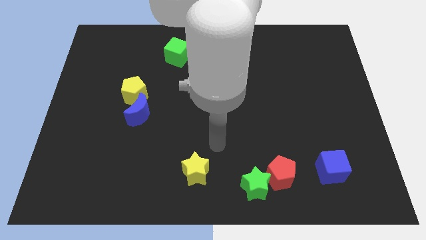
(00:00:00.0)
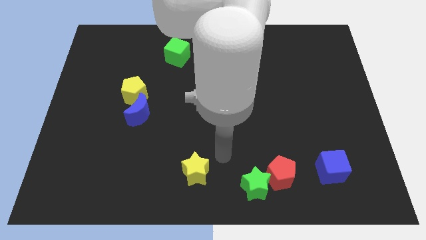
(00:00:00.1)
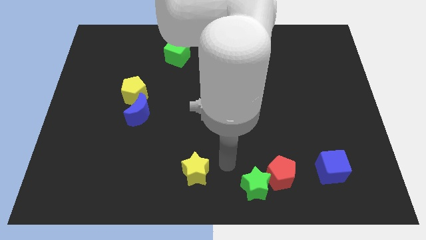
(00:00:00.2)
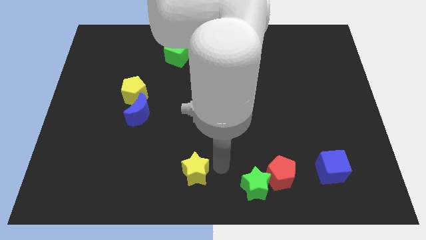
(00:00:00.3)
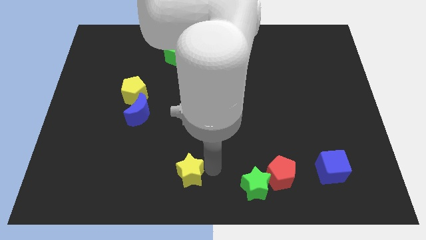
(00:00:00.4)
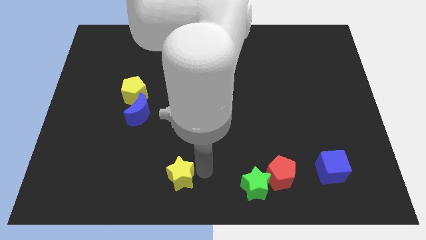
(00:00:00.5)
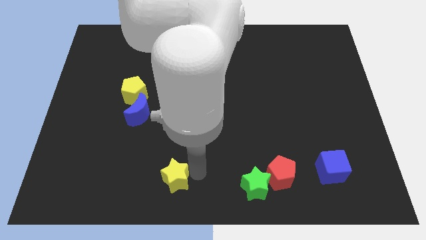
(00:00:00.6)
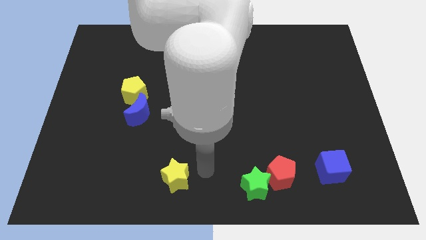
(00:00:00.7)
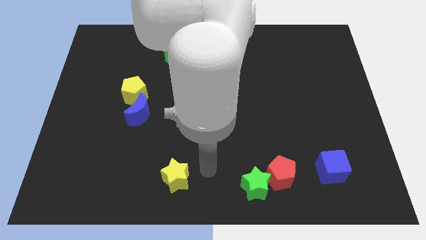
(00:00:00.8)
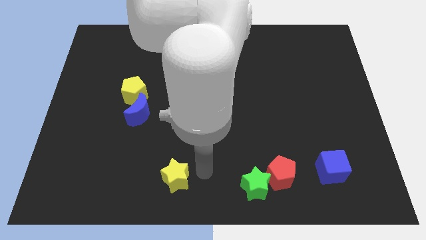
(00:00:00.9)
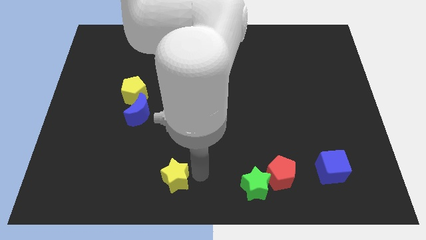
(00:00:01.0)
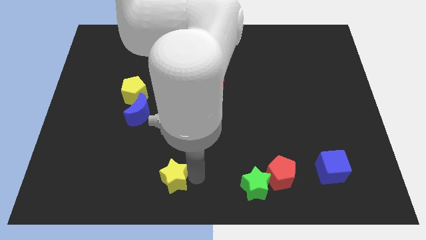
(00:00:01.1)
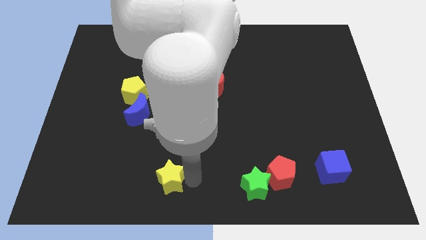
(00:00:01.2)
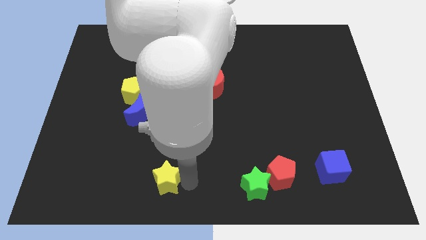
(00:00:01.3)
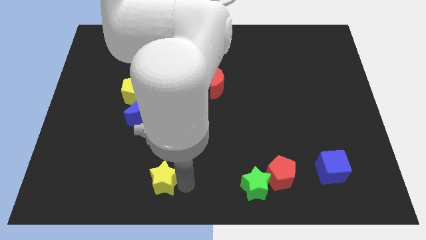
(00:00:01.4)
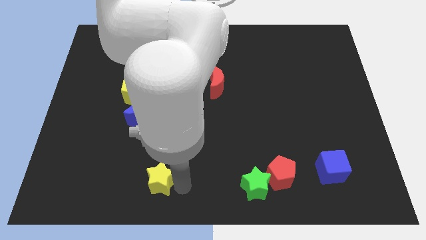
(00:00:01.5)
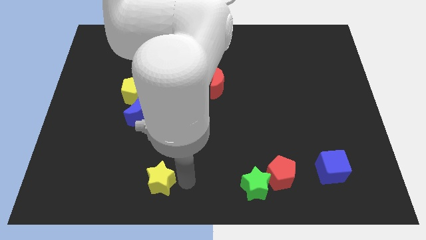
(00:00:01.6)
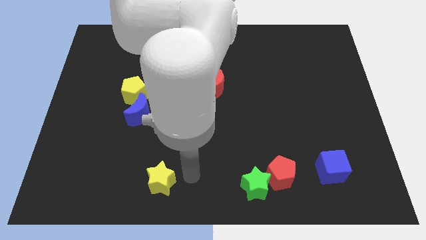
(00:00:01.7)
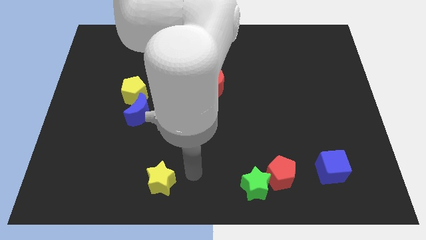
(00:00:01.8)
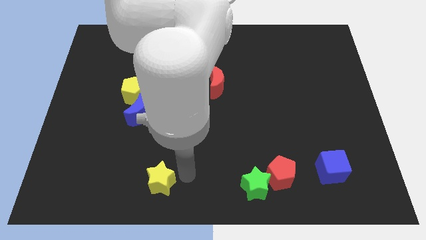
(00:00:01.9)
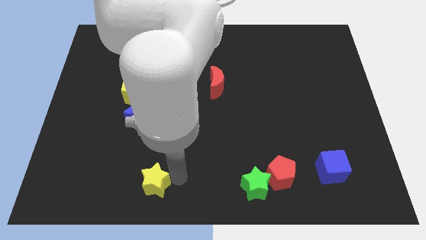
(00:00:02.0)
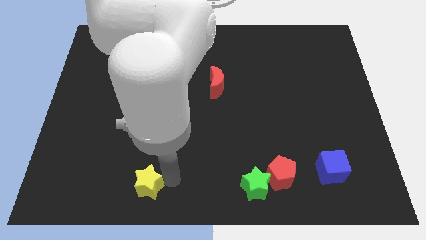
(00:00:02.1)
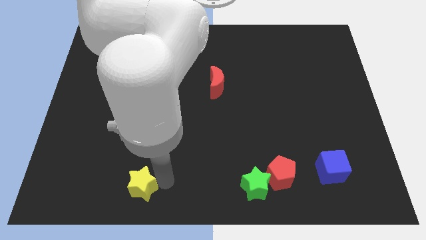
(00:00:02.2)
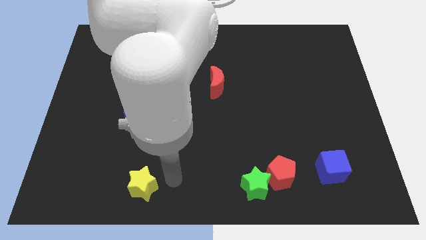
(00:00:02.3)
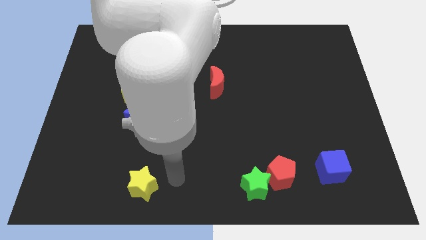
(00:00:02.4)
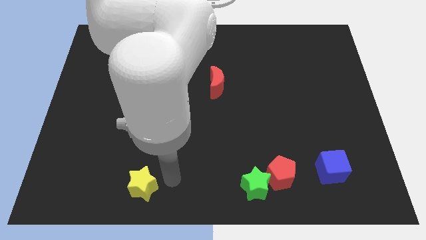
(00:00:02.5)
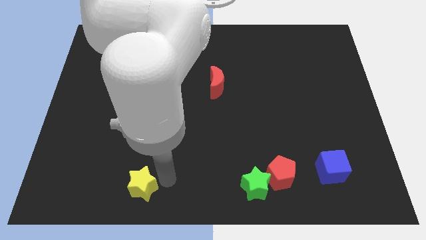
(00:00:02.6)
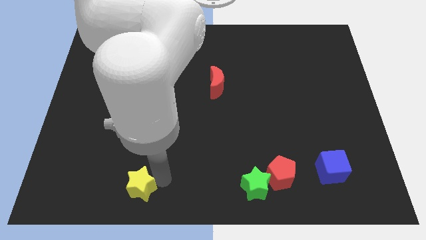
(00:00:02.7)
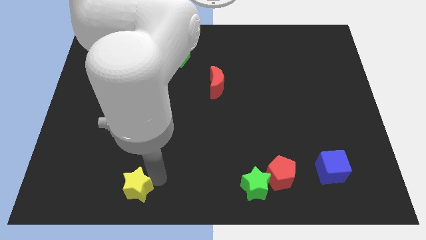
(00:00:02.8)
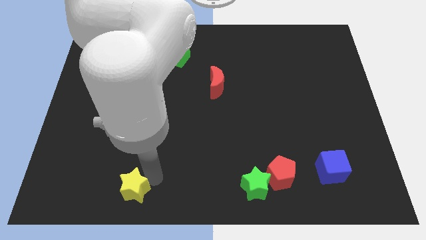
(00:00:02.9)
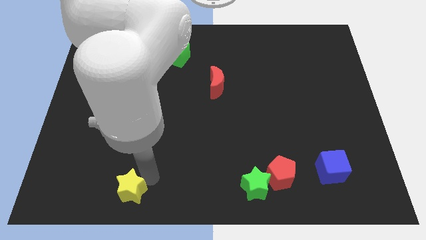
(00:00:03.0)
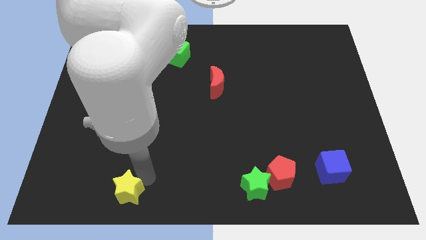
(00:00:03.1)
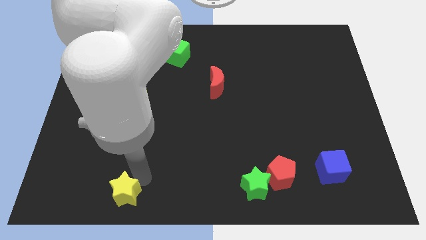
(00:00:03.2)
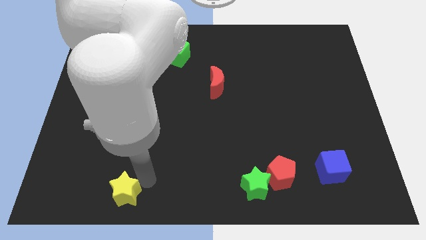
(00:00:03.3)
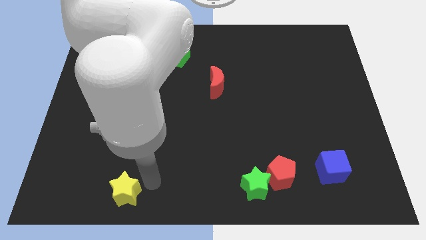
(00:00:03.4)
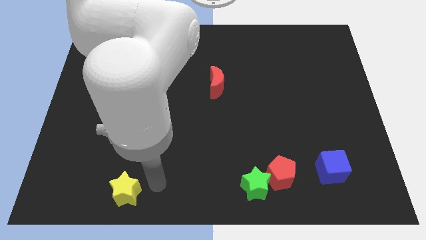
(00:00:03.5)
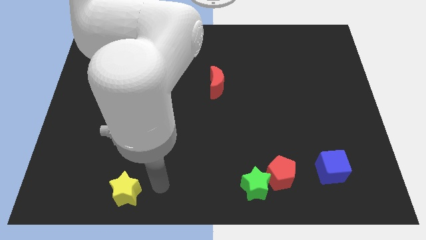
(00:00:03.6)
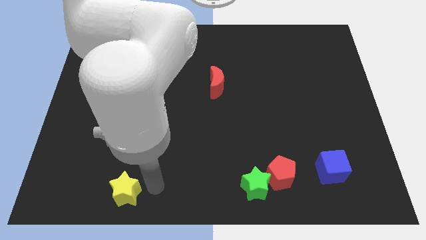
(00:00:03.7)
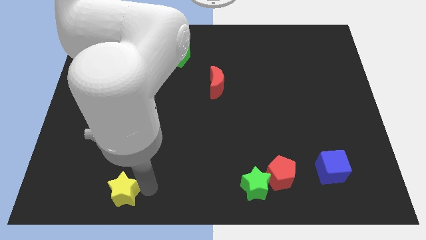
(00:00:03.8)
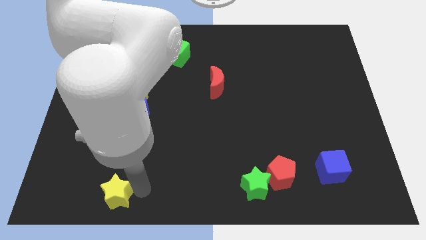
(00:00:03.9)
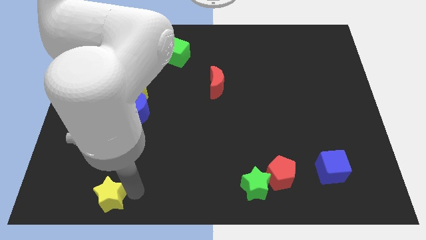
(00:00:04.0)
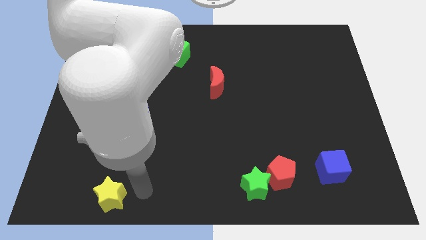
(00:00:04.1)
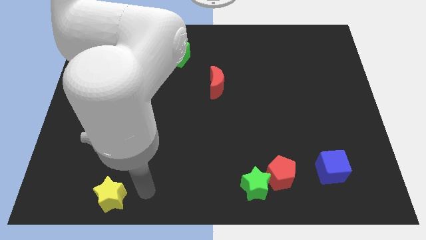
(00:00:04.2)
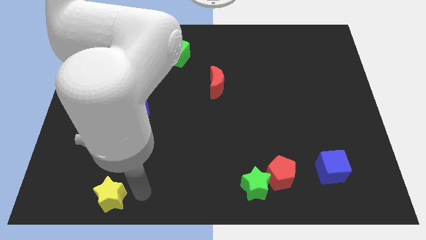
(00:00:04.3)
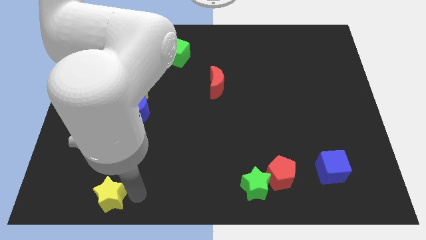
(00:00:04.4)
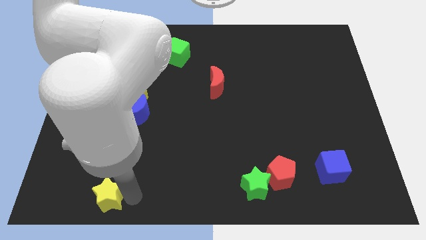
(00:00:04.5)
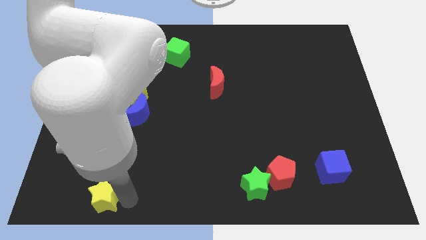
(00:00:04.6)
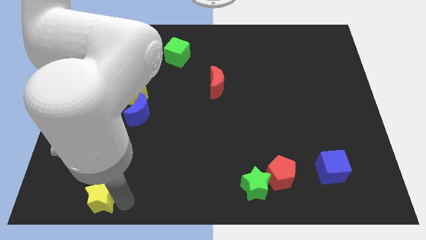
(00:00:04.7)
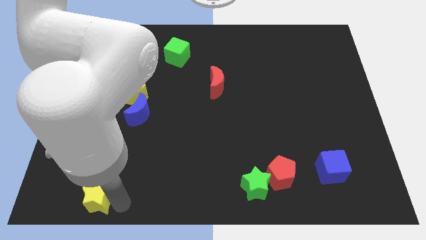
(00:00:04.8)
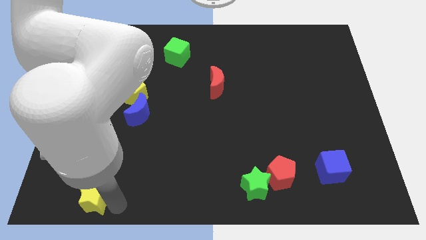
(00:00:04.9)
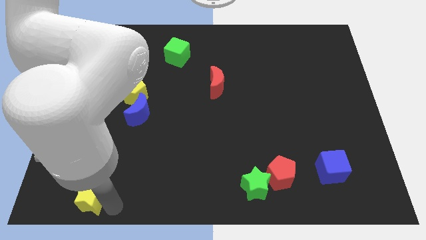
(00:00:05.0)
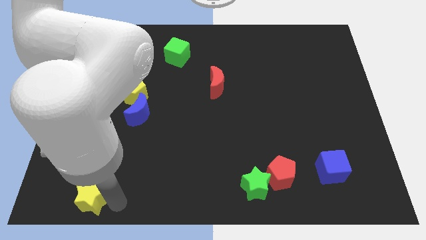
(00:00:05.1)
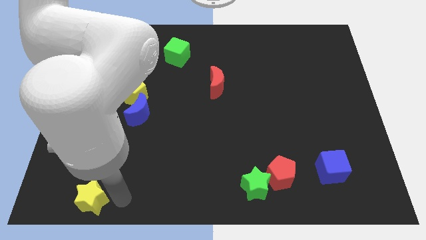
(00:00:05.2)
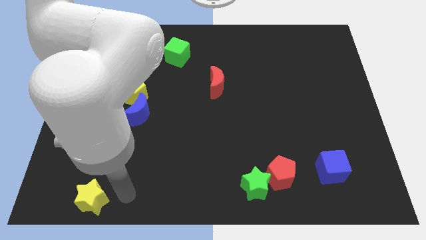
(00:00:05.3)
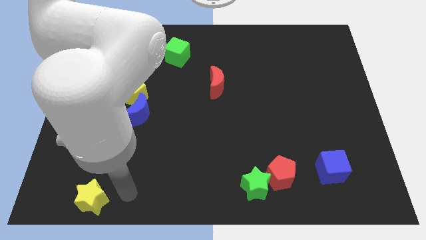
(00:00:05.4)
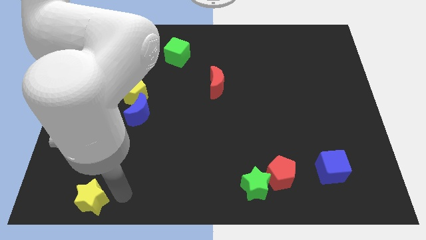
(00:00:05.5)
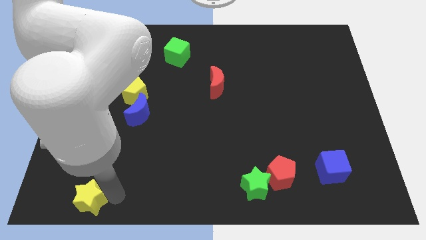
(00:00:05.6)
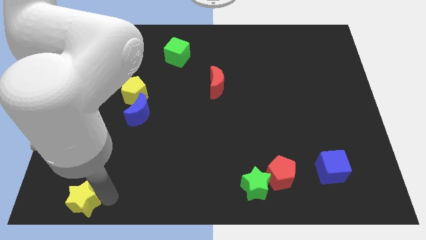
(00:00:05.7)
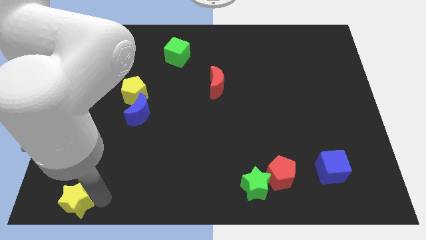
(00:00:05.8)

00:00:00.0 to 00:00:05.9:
slide the yellow star to the bottom left
